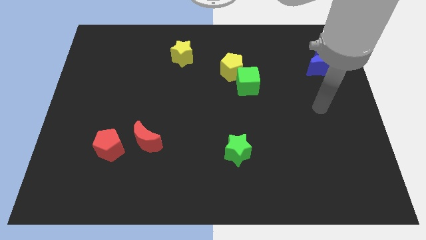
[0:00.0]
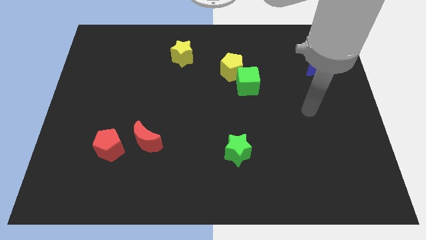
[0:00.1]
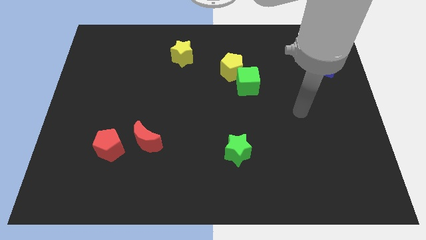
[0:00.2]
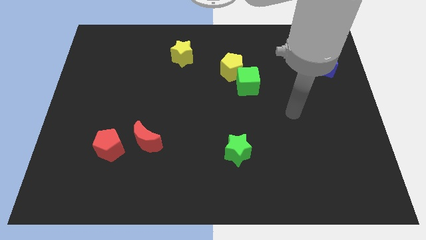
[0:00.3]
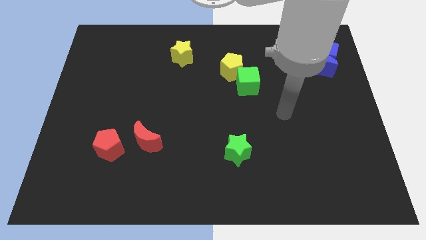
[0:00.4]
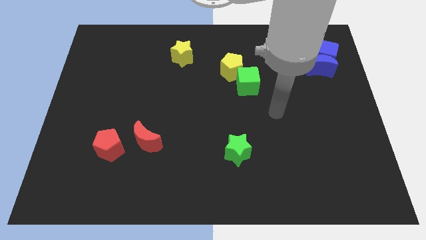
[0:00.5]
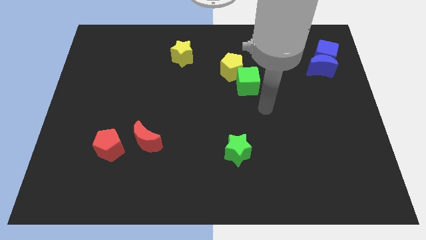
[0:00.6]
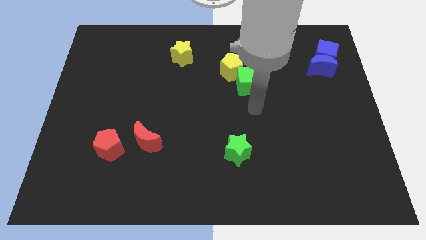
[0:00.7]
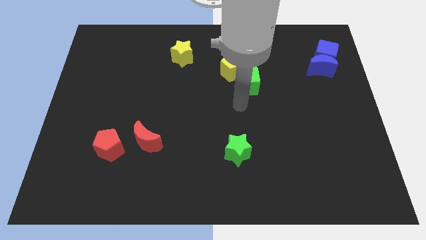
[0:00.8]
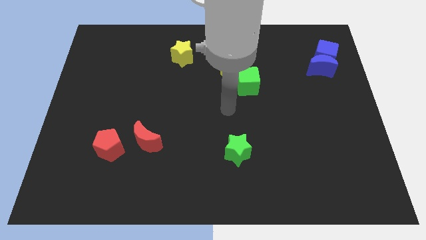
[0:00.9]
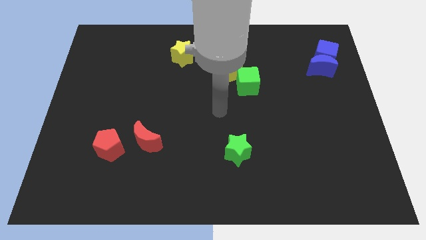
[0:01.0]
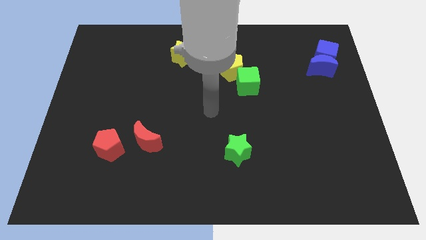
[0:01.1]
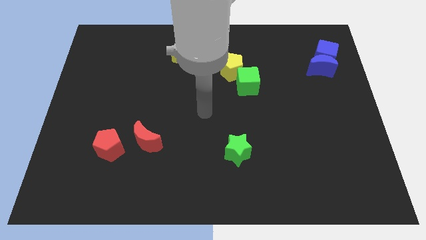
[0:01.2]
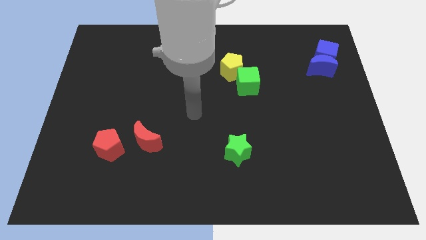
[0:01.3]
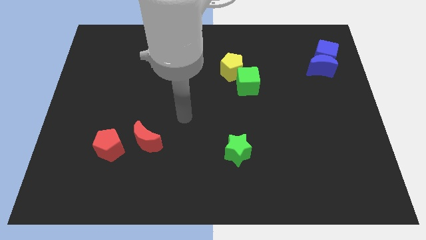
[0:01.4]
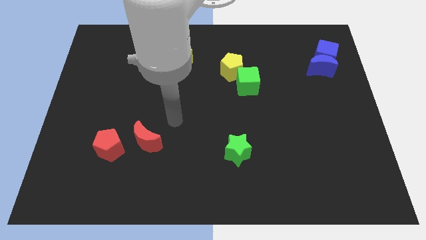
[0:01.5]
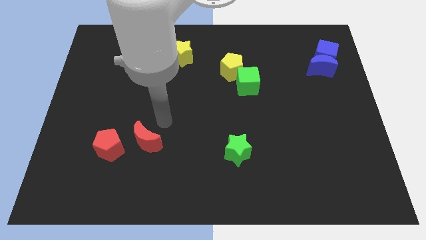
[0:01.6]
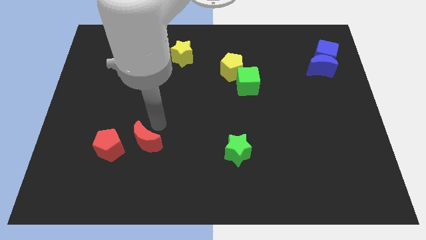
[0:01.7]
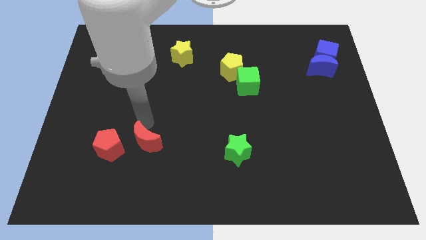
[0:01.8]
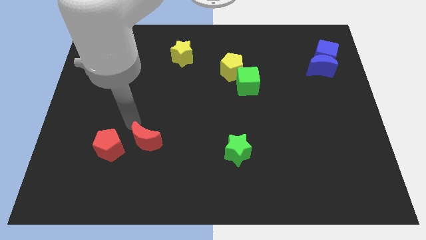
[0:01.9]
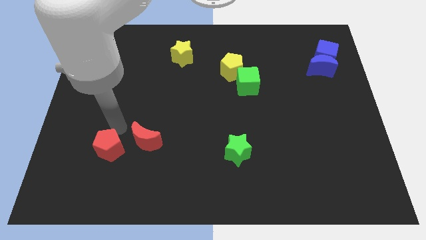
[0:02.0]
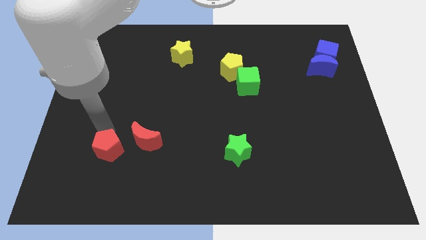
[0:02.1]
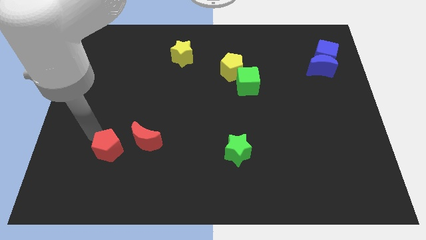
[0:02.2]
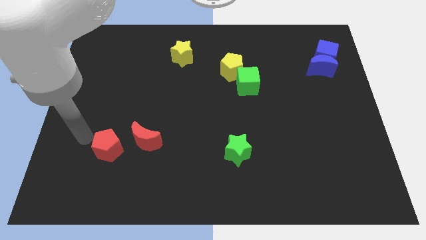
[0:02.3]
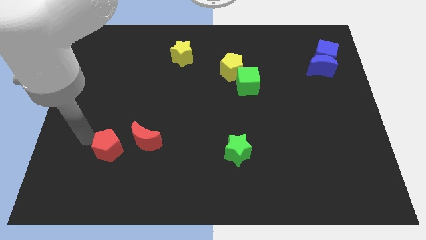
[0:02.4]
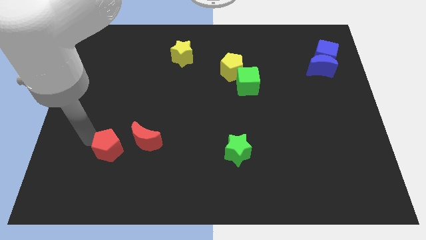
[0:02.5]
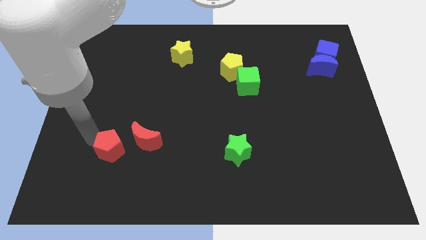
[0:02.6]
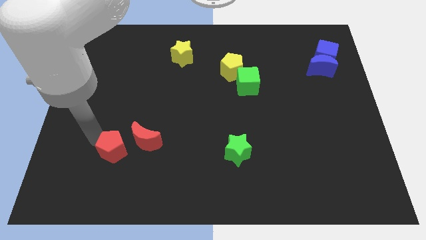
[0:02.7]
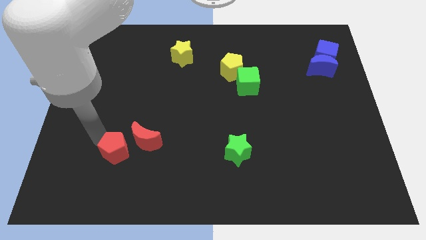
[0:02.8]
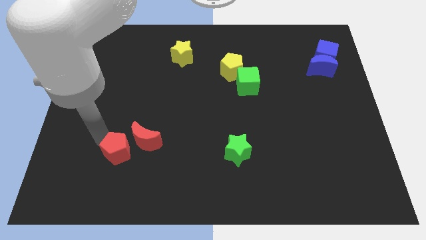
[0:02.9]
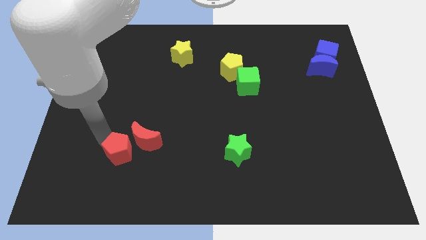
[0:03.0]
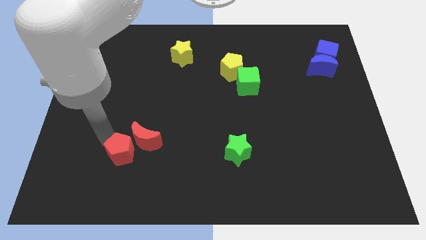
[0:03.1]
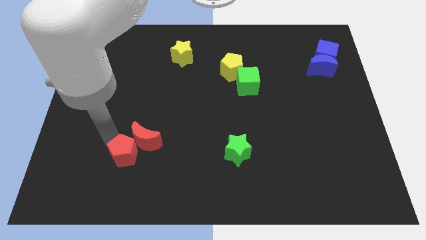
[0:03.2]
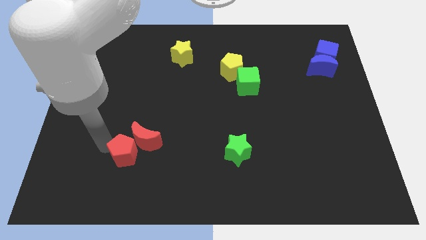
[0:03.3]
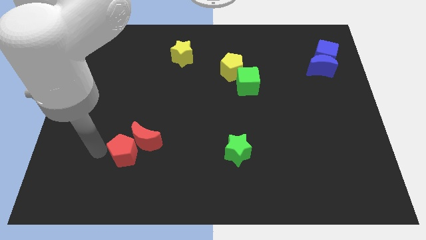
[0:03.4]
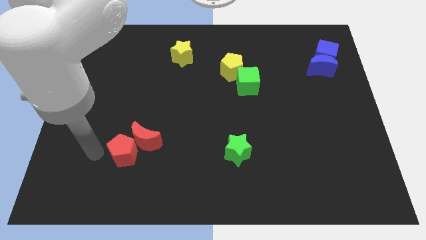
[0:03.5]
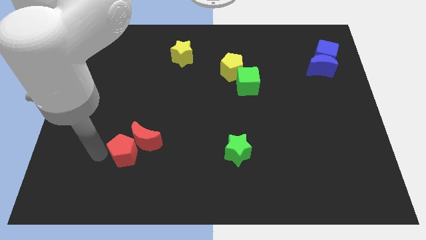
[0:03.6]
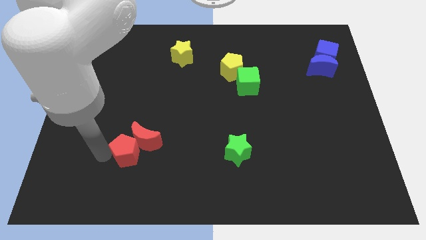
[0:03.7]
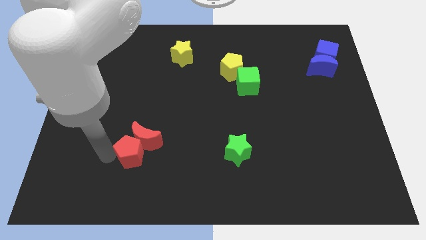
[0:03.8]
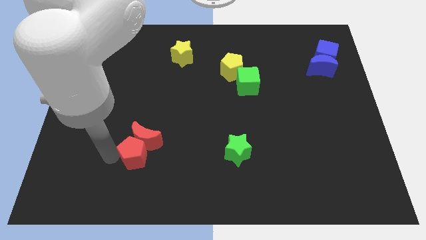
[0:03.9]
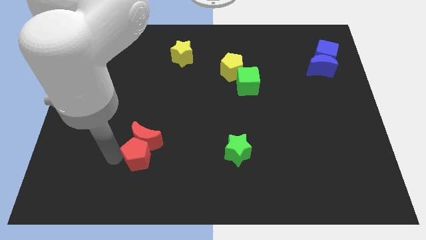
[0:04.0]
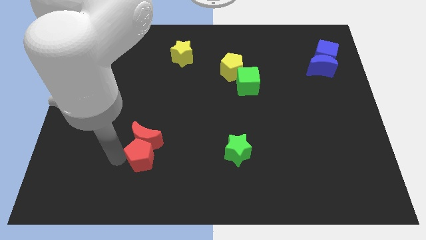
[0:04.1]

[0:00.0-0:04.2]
slightly push the red pentagon to the right

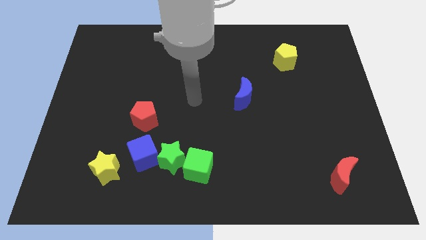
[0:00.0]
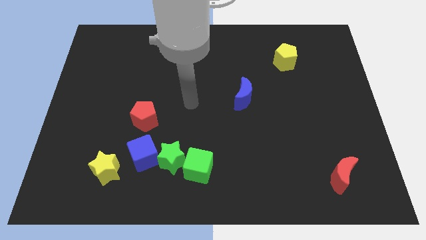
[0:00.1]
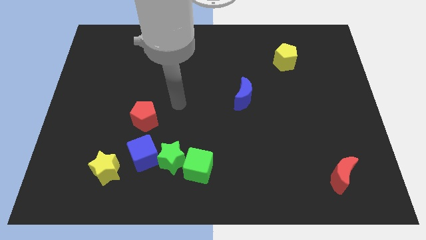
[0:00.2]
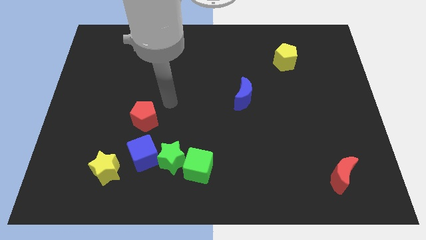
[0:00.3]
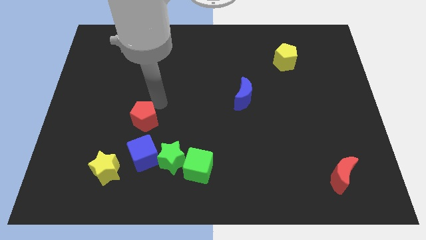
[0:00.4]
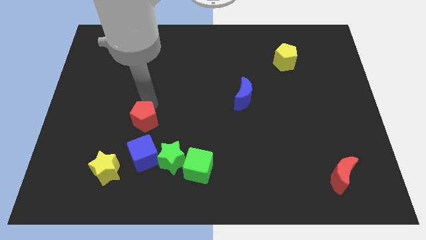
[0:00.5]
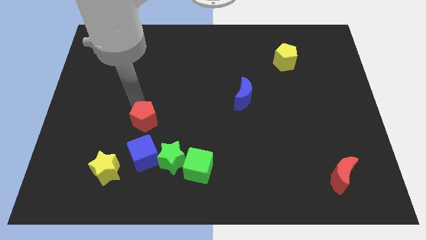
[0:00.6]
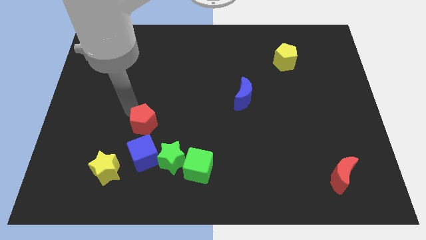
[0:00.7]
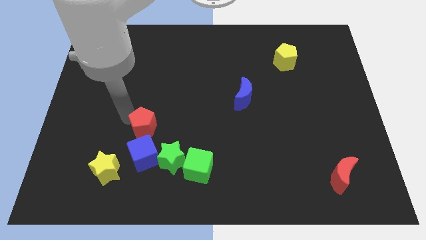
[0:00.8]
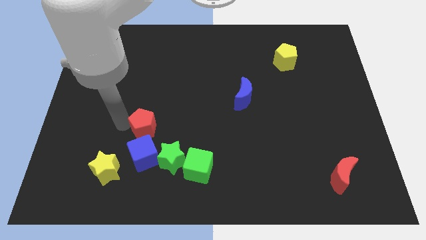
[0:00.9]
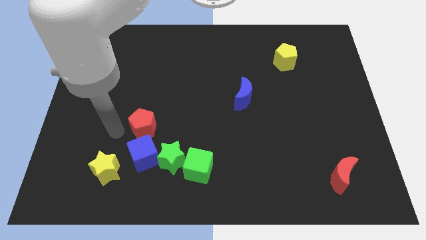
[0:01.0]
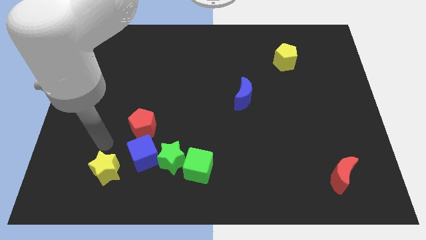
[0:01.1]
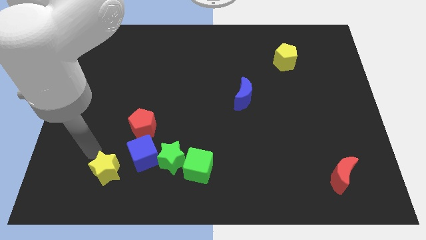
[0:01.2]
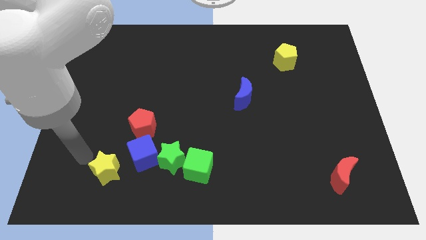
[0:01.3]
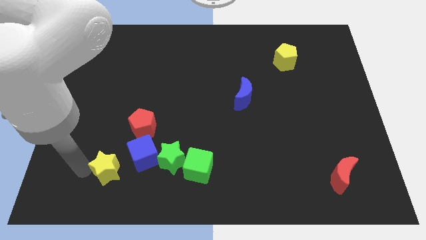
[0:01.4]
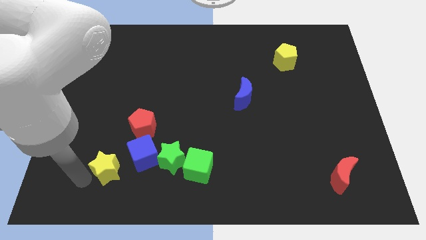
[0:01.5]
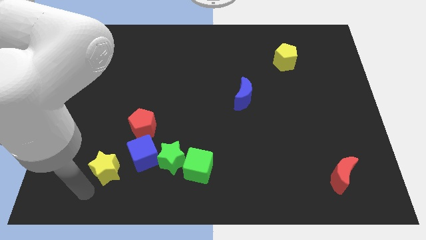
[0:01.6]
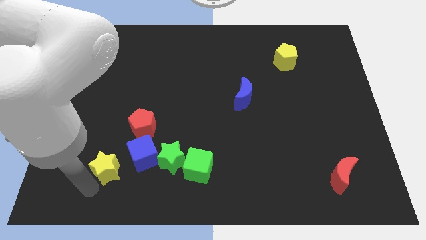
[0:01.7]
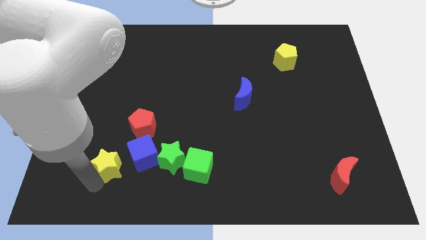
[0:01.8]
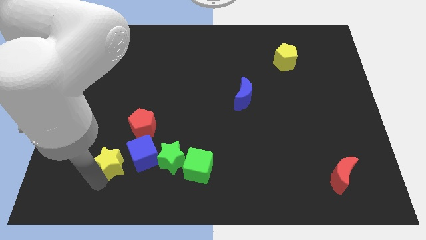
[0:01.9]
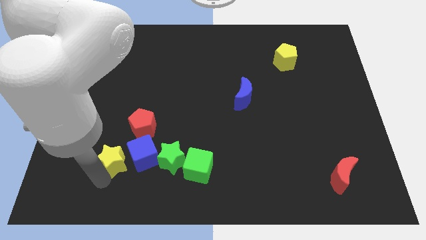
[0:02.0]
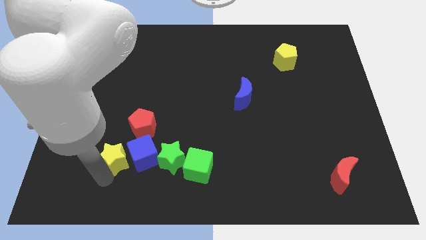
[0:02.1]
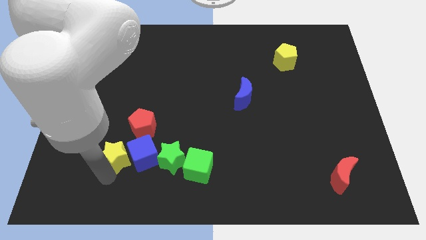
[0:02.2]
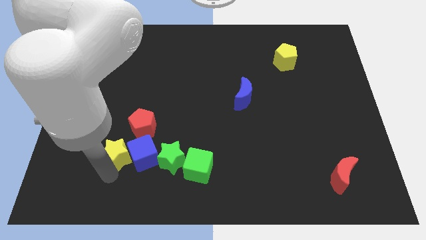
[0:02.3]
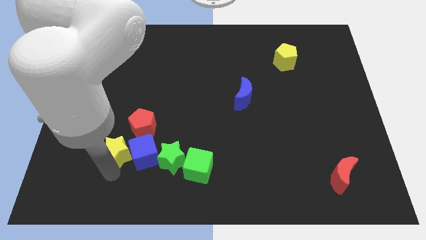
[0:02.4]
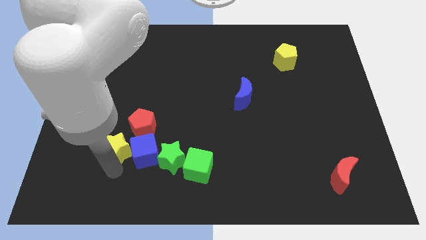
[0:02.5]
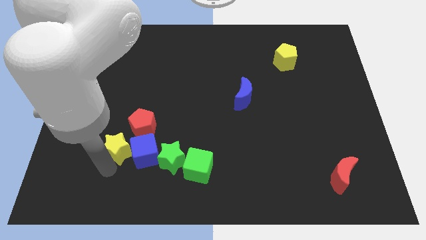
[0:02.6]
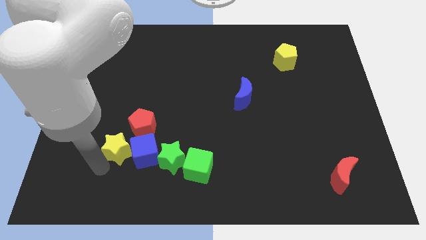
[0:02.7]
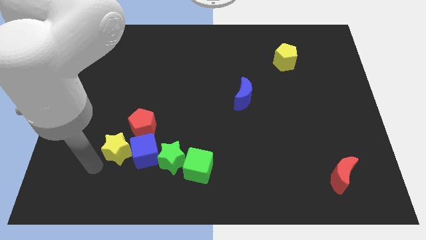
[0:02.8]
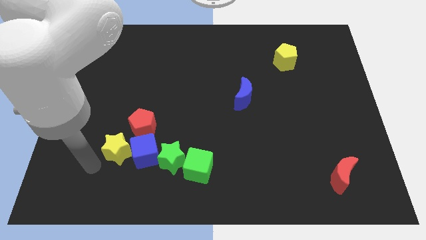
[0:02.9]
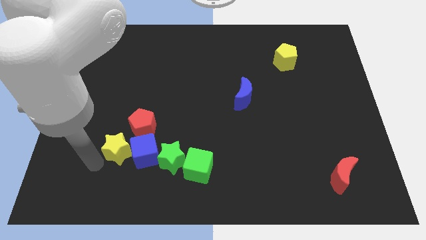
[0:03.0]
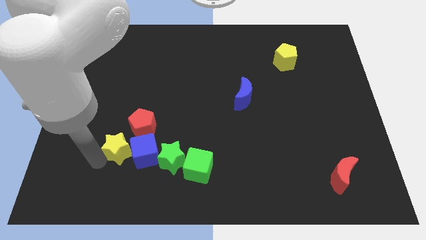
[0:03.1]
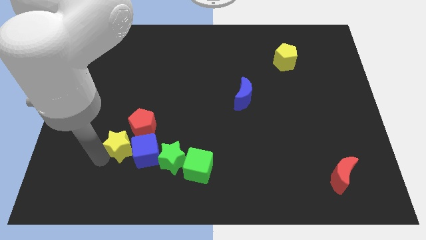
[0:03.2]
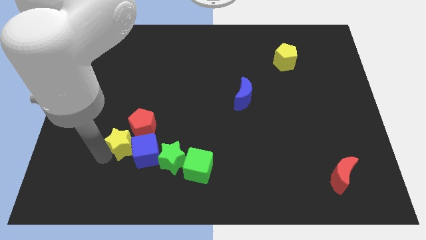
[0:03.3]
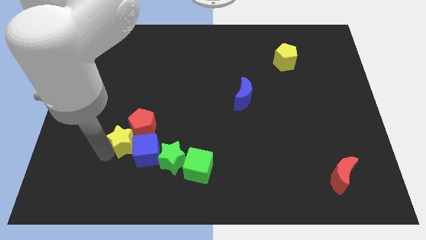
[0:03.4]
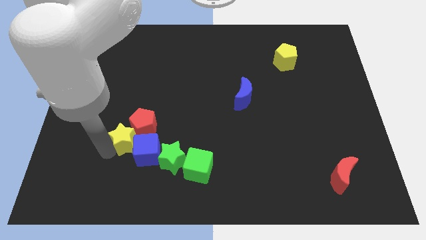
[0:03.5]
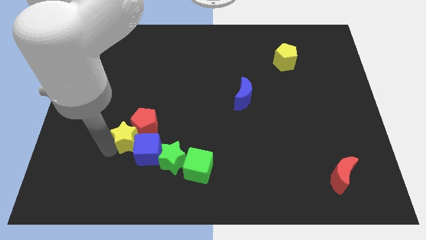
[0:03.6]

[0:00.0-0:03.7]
slide the yellow star somewhat upwards and to the right

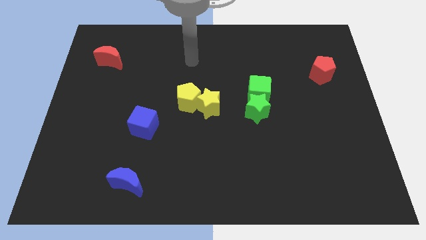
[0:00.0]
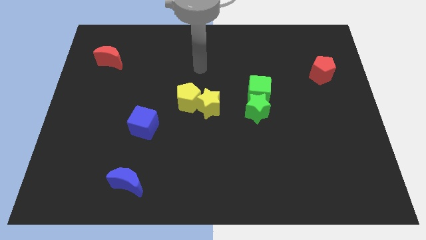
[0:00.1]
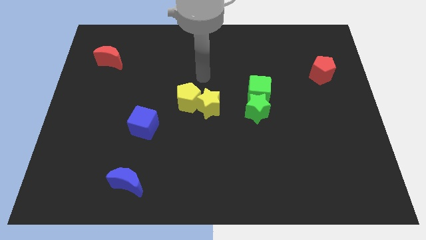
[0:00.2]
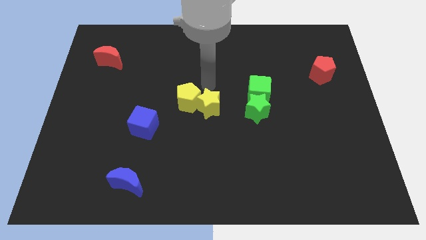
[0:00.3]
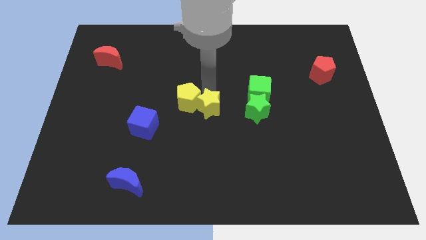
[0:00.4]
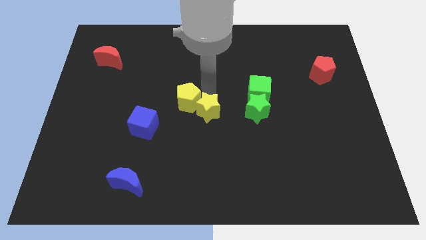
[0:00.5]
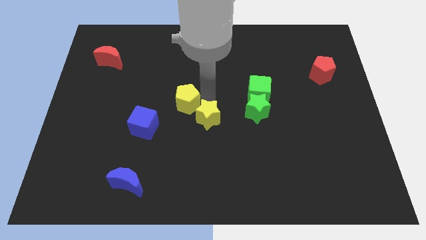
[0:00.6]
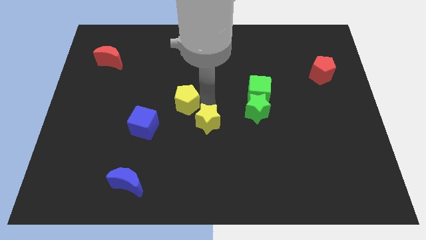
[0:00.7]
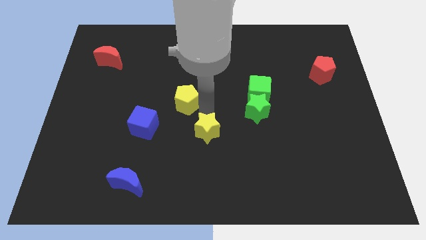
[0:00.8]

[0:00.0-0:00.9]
slightly slide the yellow star downwards
